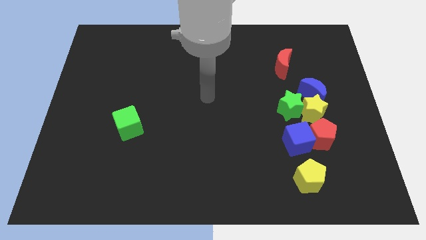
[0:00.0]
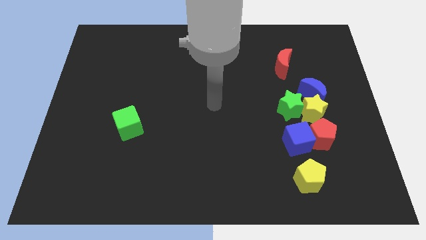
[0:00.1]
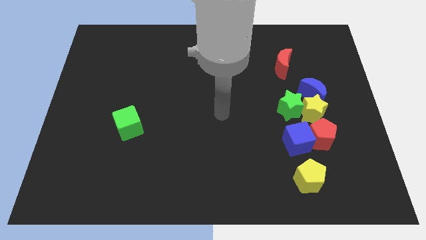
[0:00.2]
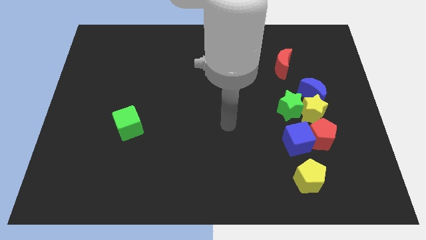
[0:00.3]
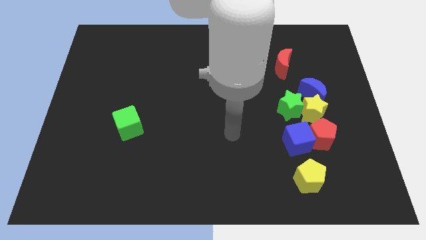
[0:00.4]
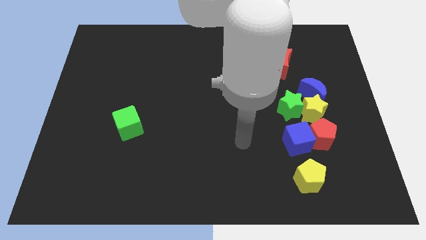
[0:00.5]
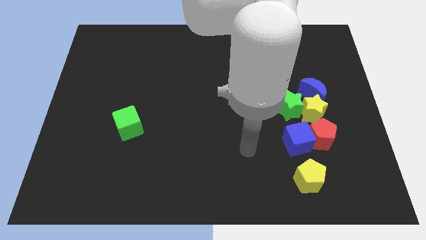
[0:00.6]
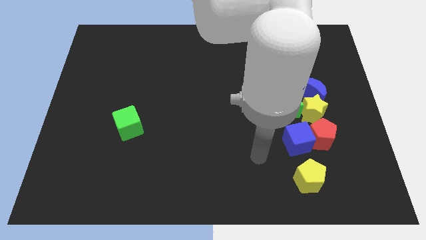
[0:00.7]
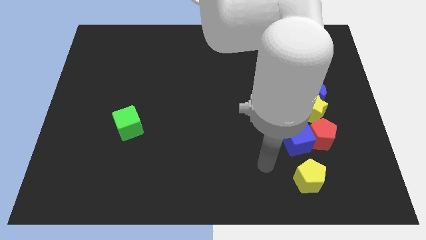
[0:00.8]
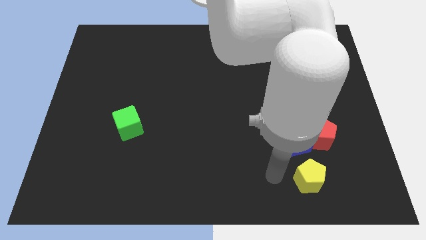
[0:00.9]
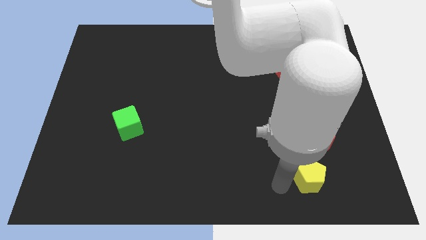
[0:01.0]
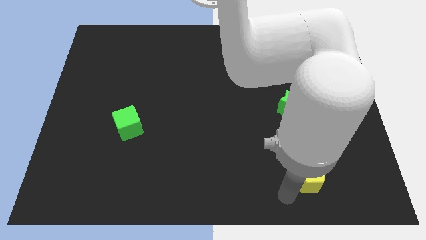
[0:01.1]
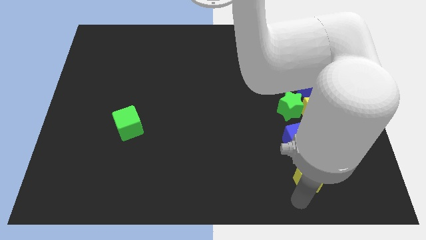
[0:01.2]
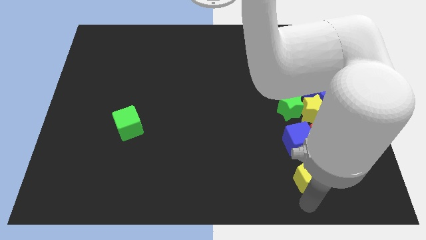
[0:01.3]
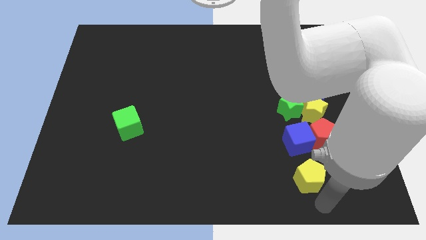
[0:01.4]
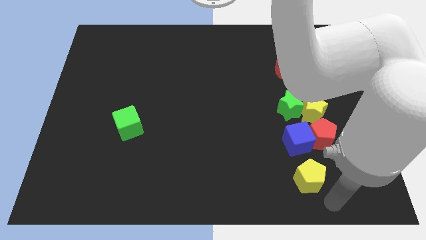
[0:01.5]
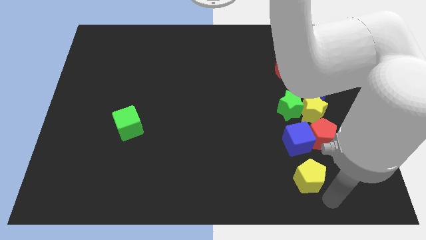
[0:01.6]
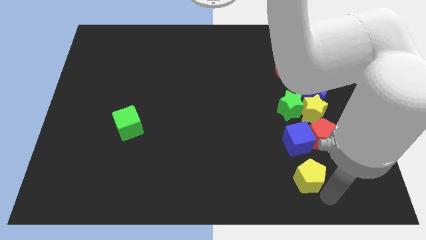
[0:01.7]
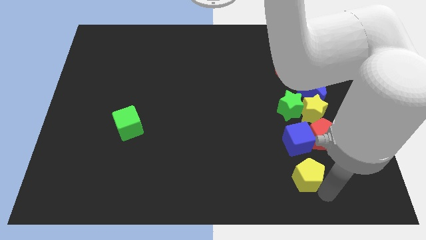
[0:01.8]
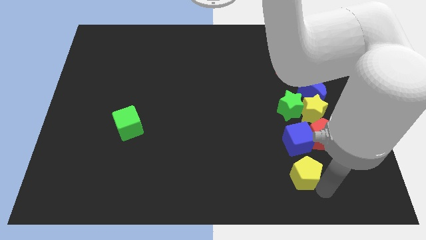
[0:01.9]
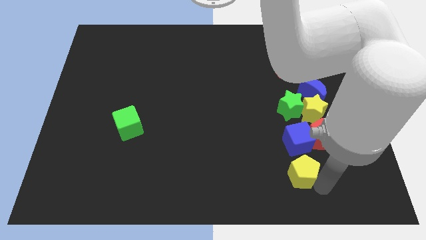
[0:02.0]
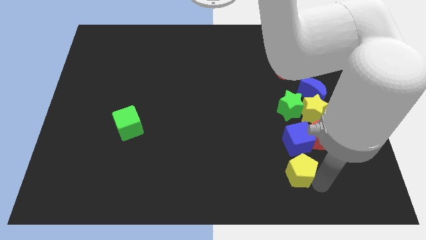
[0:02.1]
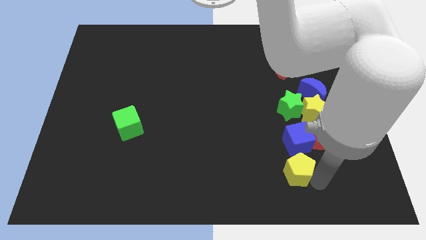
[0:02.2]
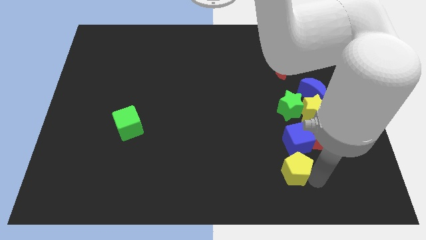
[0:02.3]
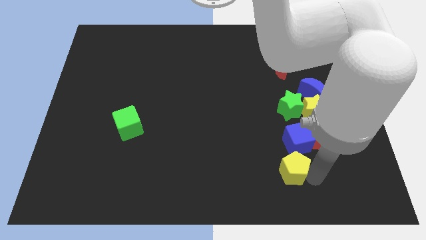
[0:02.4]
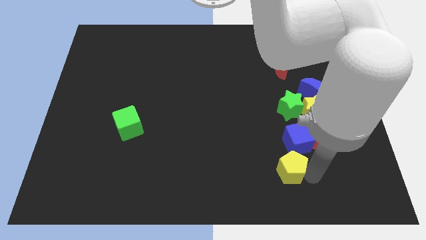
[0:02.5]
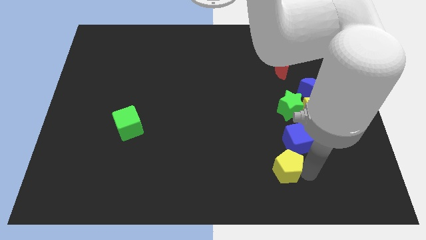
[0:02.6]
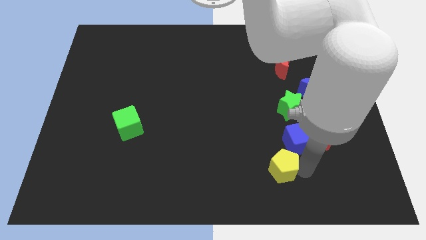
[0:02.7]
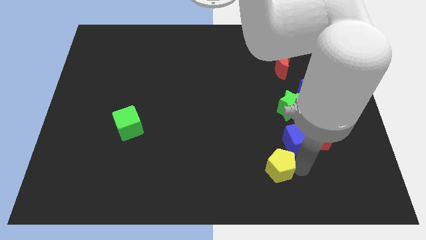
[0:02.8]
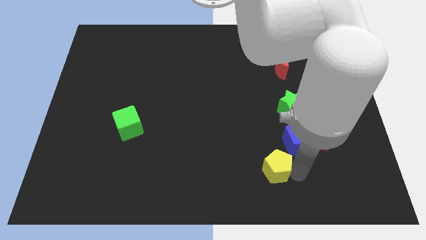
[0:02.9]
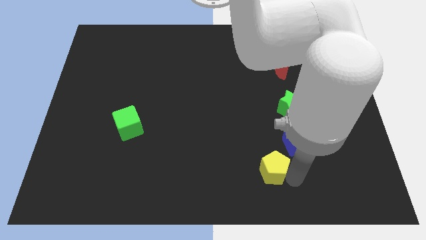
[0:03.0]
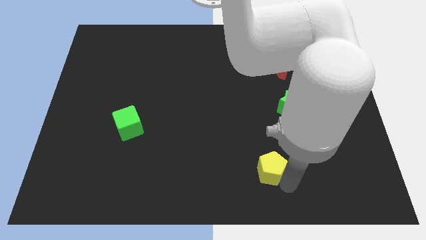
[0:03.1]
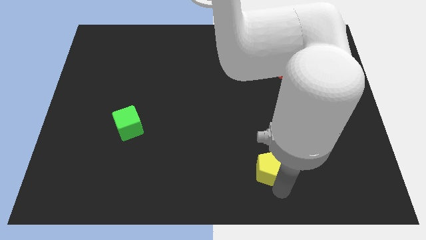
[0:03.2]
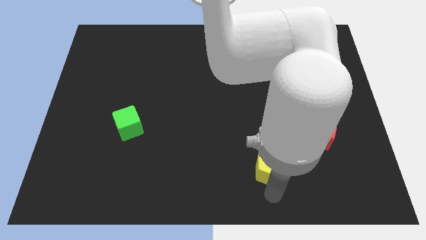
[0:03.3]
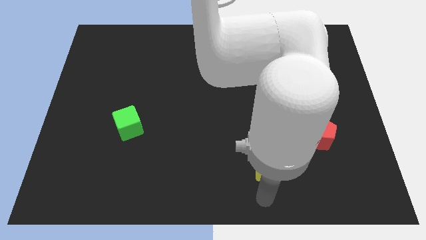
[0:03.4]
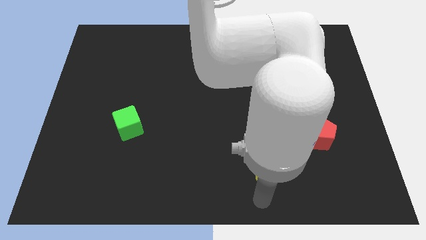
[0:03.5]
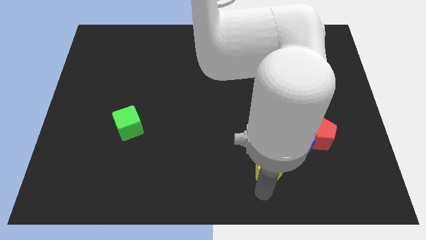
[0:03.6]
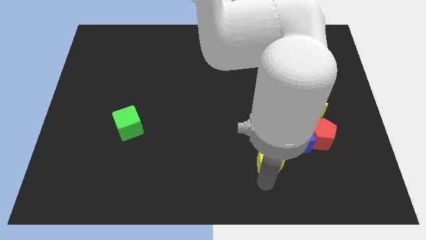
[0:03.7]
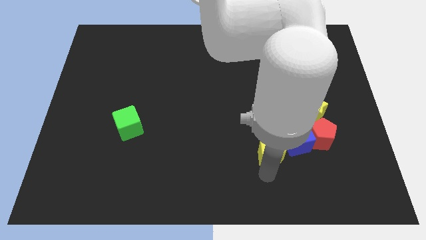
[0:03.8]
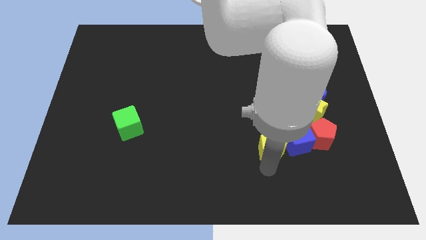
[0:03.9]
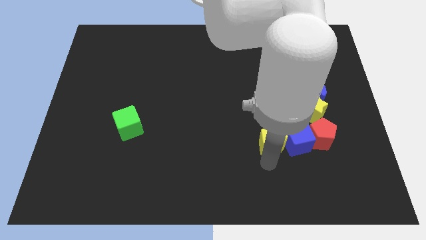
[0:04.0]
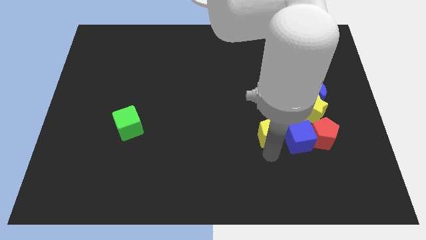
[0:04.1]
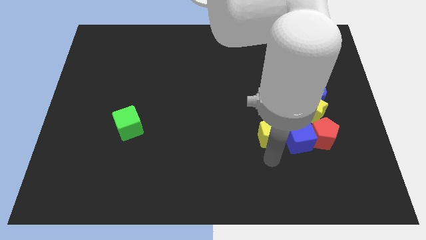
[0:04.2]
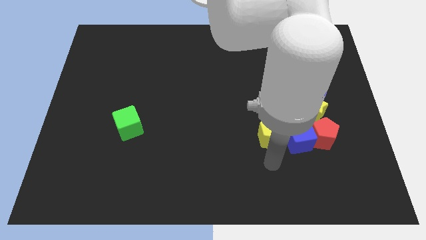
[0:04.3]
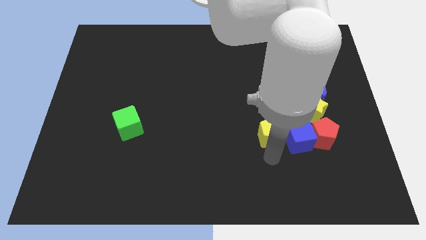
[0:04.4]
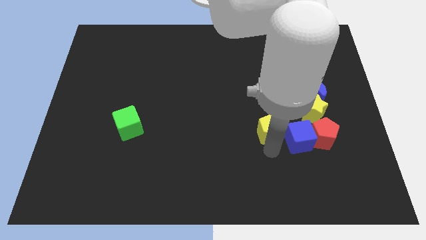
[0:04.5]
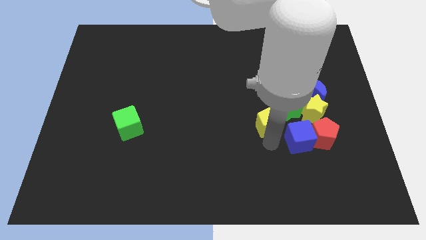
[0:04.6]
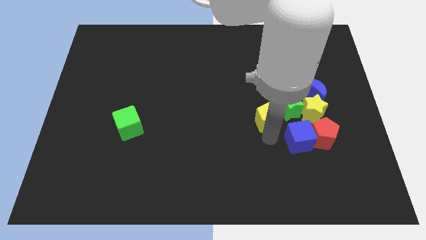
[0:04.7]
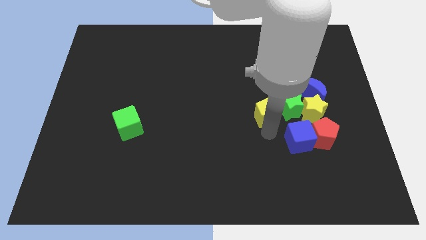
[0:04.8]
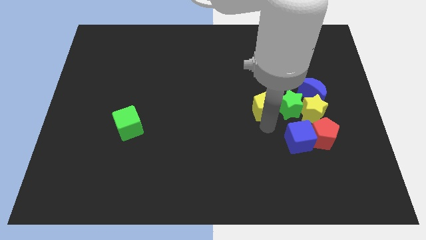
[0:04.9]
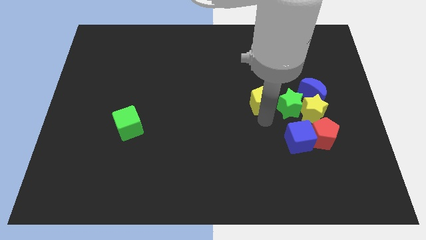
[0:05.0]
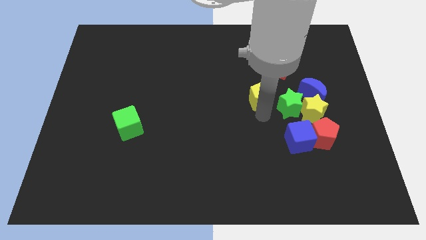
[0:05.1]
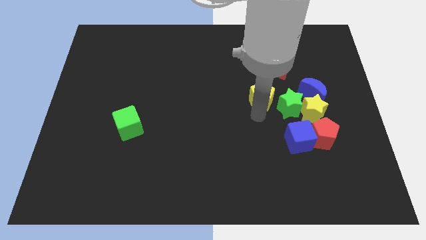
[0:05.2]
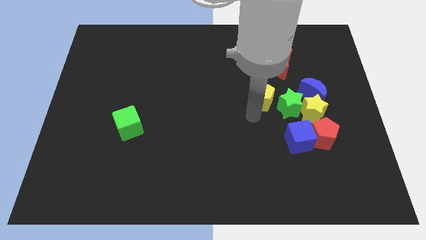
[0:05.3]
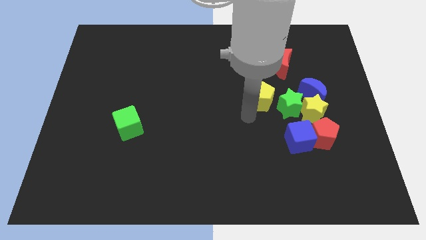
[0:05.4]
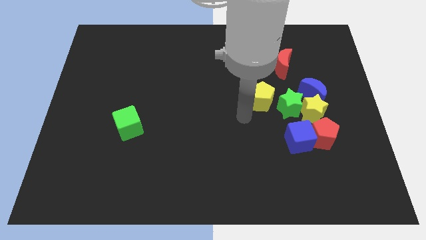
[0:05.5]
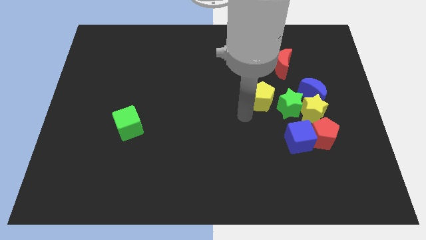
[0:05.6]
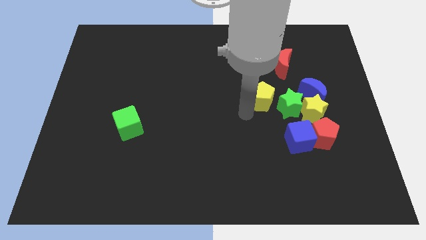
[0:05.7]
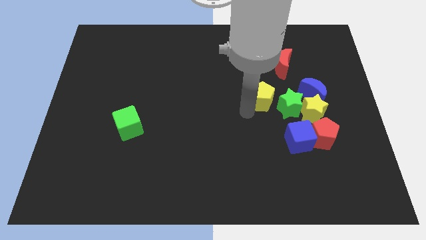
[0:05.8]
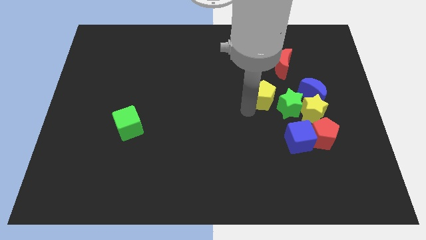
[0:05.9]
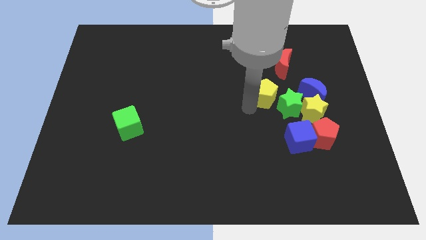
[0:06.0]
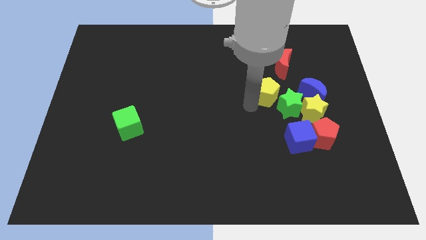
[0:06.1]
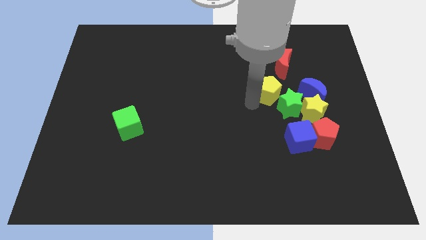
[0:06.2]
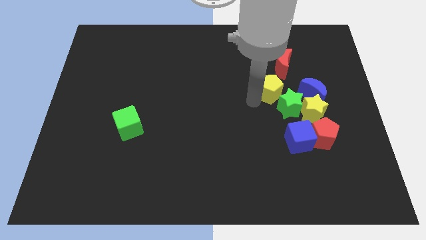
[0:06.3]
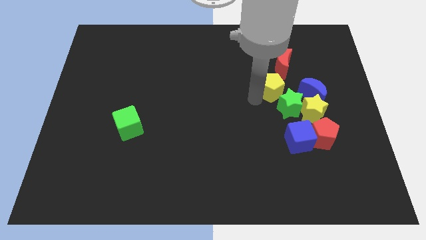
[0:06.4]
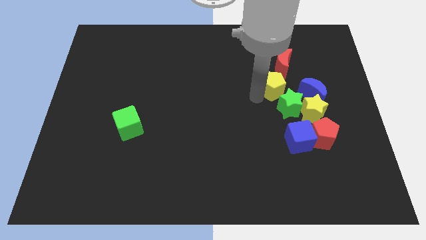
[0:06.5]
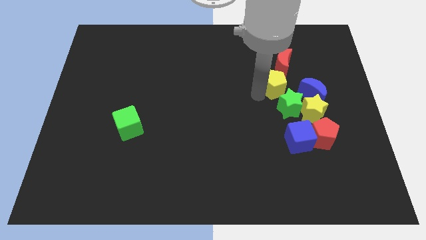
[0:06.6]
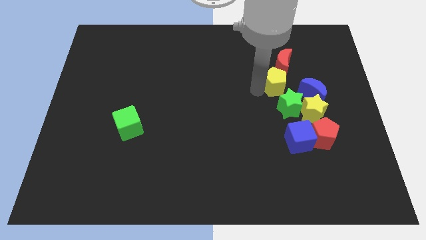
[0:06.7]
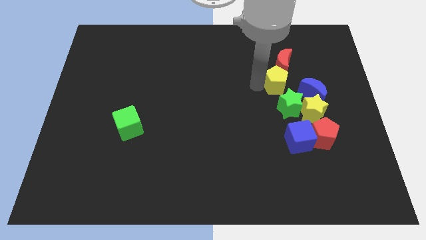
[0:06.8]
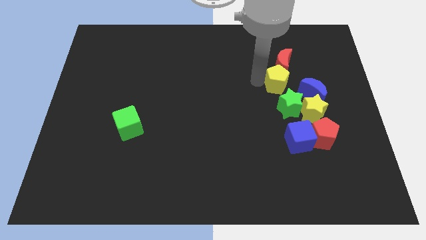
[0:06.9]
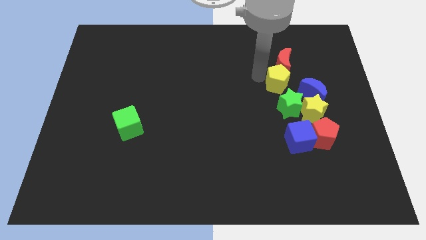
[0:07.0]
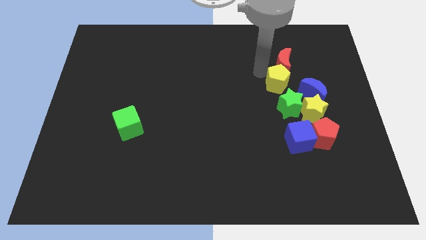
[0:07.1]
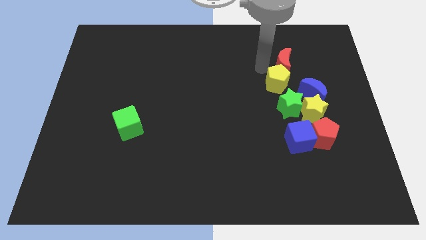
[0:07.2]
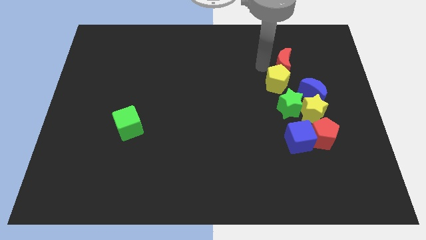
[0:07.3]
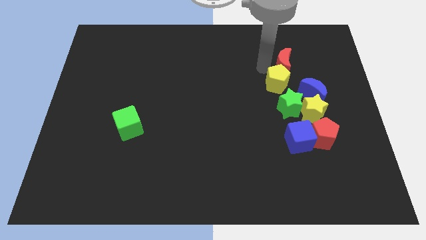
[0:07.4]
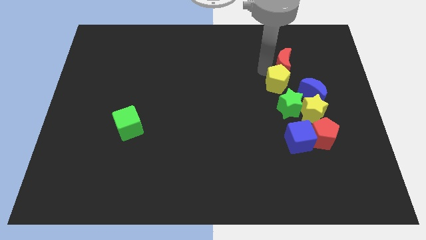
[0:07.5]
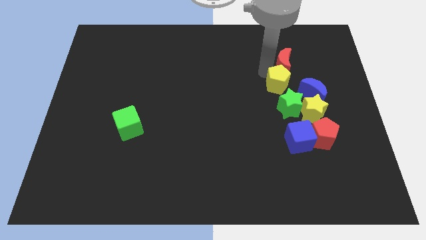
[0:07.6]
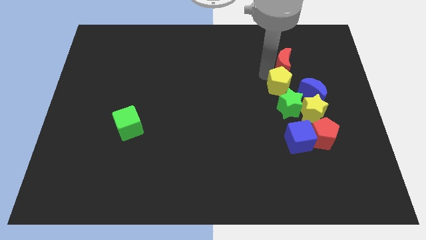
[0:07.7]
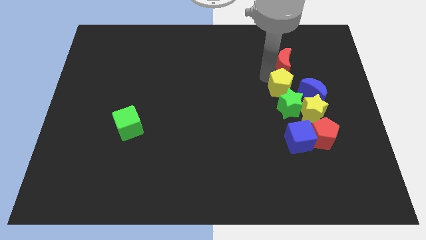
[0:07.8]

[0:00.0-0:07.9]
put the yellow pentagon to the top of the blue cube
